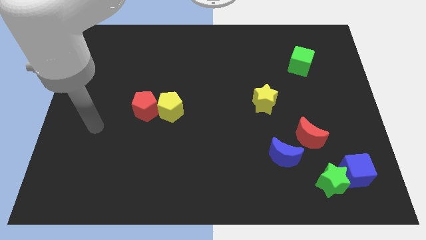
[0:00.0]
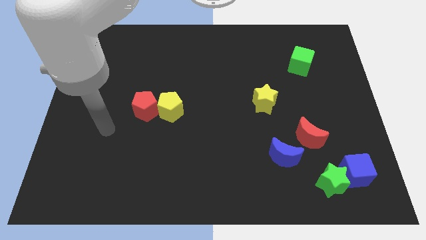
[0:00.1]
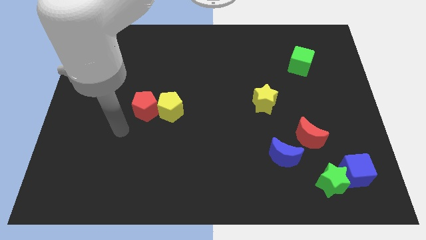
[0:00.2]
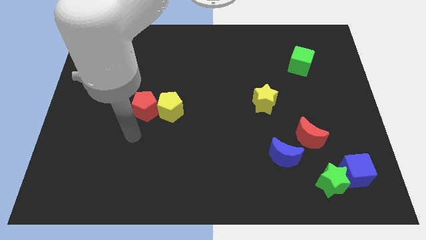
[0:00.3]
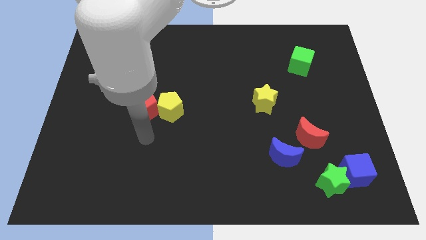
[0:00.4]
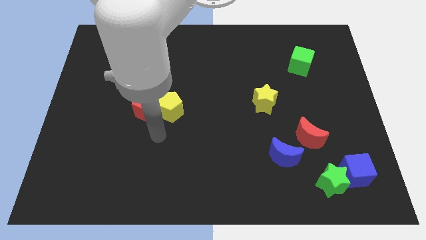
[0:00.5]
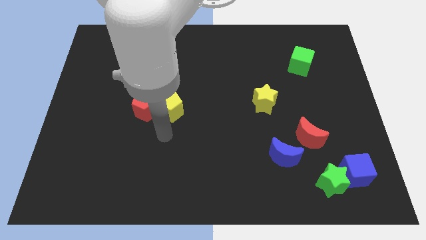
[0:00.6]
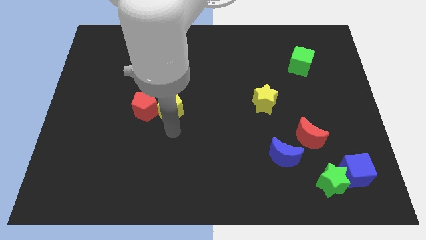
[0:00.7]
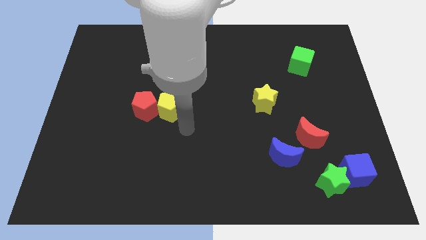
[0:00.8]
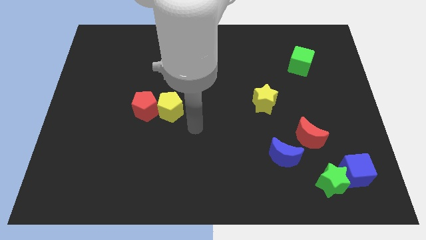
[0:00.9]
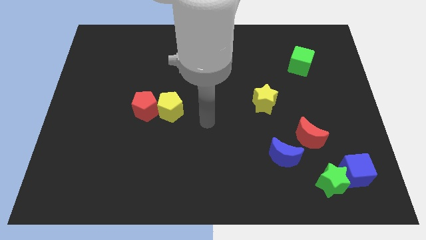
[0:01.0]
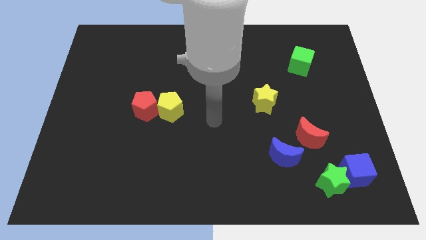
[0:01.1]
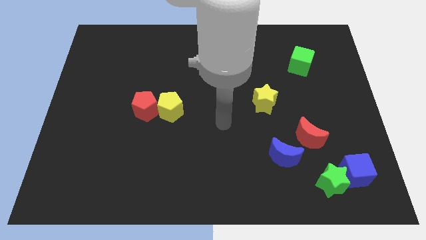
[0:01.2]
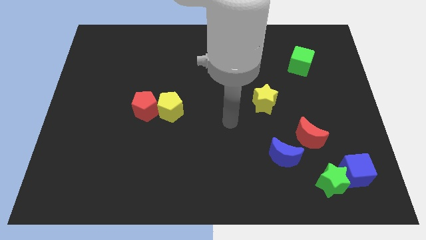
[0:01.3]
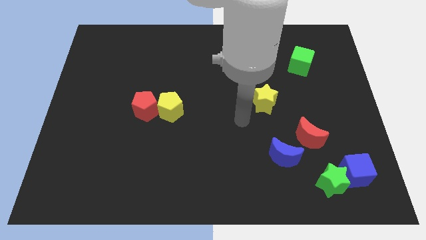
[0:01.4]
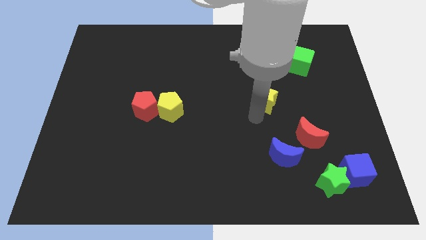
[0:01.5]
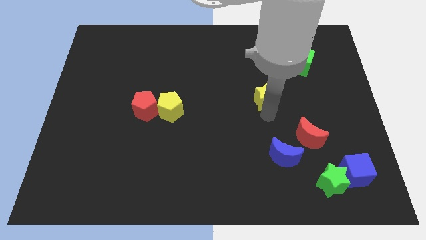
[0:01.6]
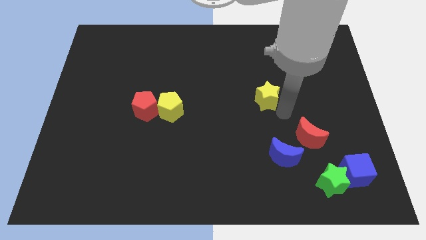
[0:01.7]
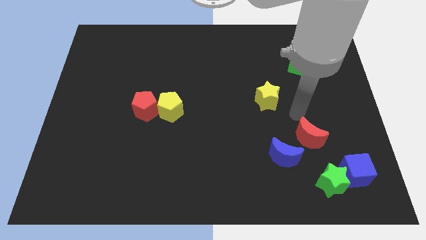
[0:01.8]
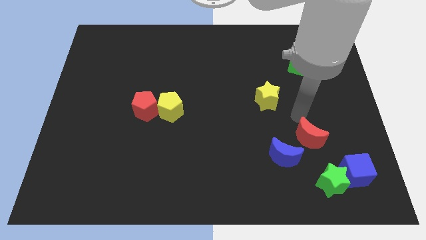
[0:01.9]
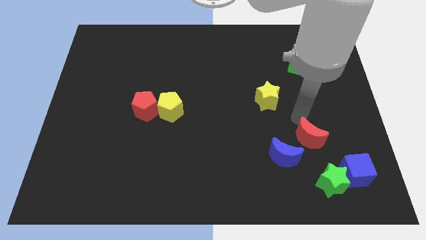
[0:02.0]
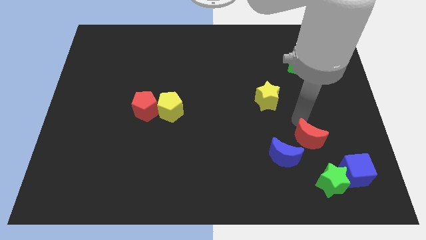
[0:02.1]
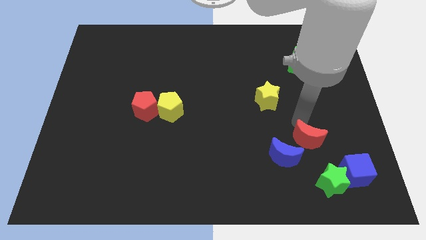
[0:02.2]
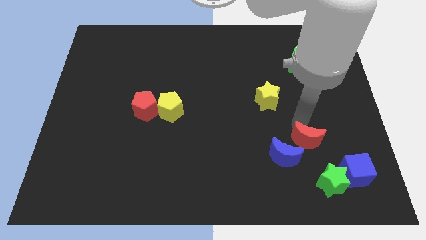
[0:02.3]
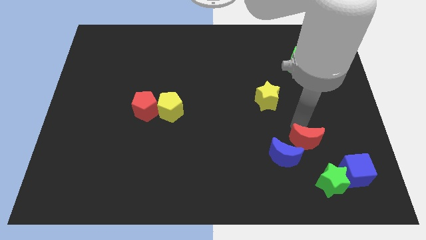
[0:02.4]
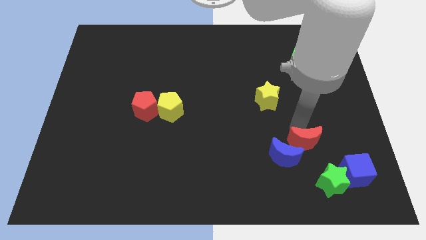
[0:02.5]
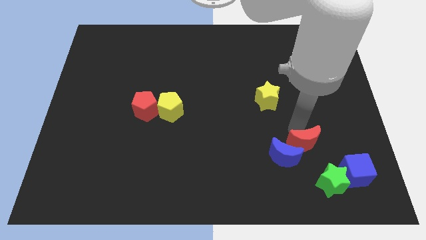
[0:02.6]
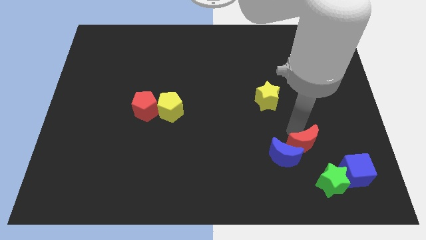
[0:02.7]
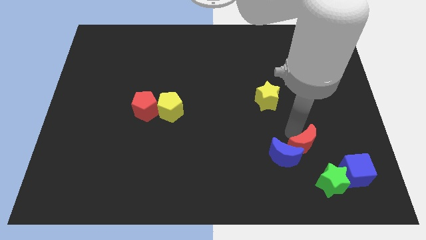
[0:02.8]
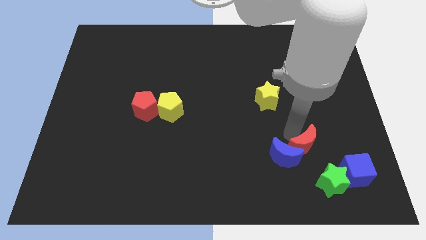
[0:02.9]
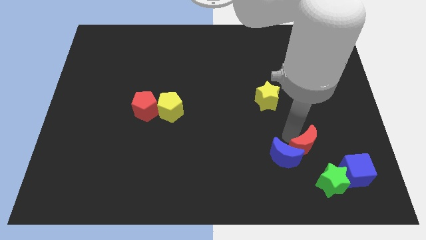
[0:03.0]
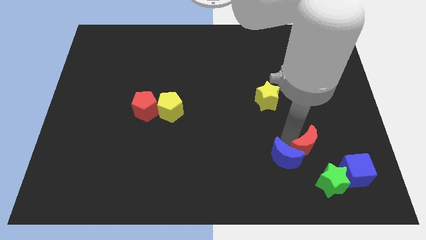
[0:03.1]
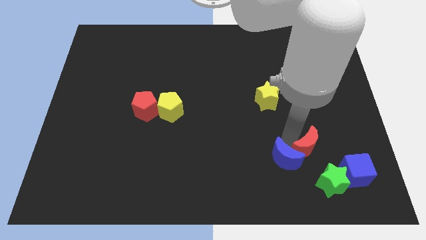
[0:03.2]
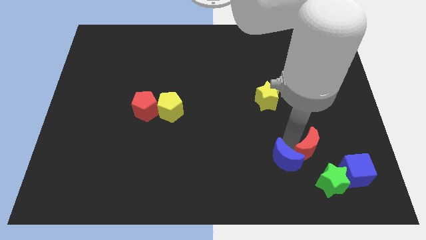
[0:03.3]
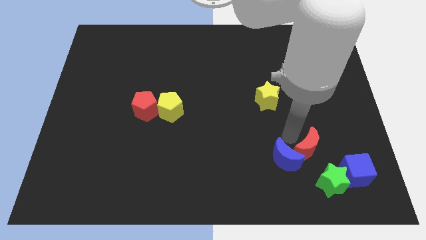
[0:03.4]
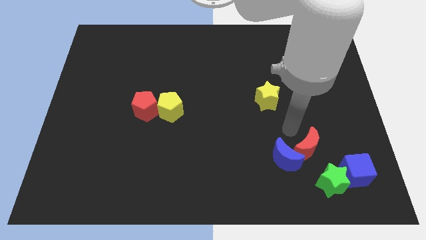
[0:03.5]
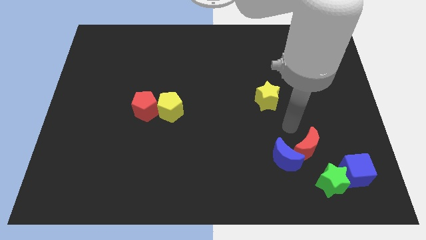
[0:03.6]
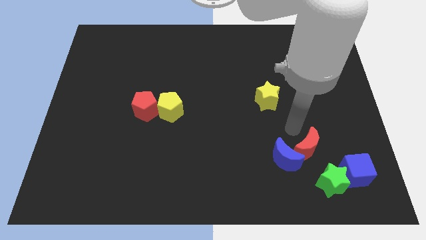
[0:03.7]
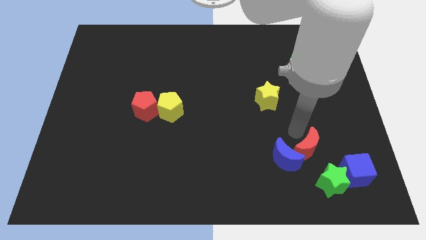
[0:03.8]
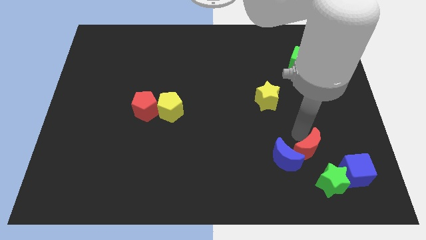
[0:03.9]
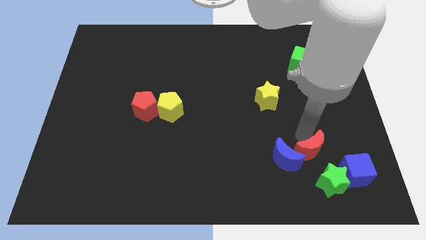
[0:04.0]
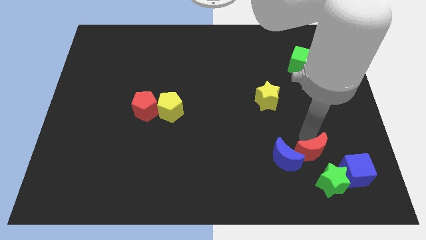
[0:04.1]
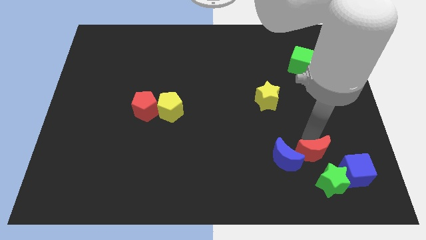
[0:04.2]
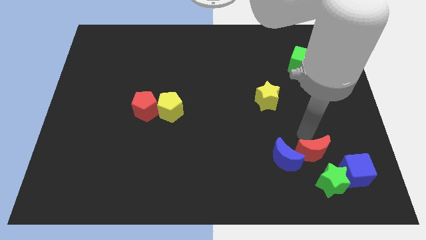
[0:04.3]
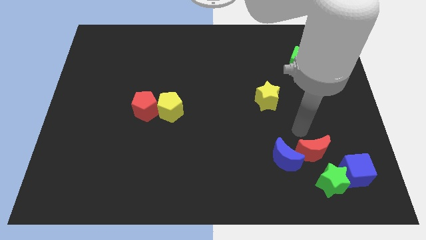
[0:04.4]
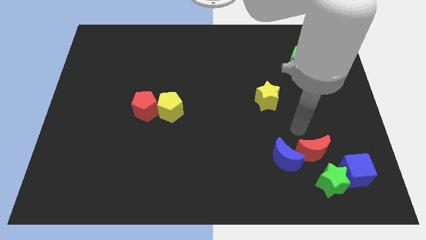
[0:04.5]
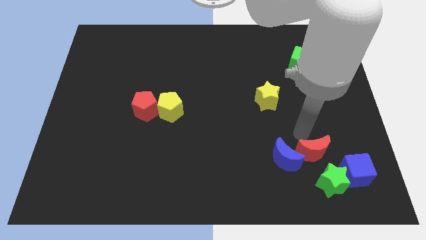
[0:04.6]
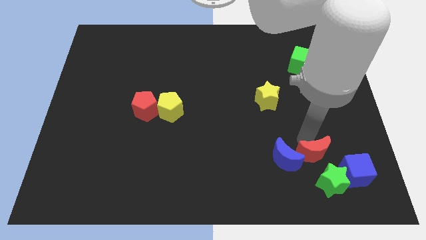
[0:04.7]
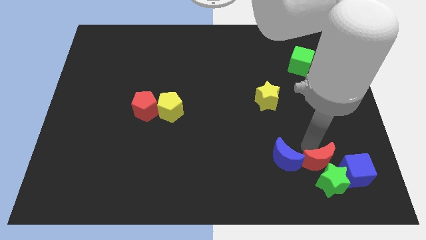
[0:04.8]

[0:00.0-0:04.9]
slide the red moon towards the green star

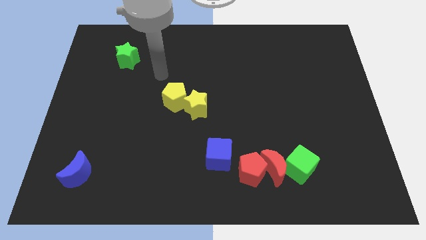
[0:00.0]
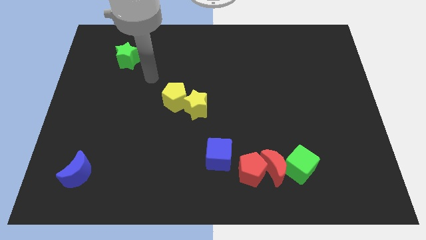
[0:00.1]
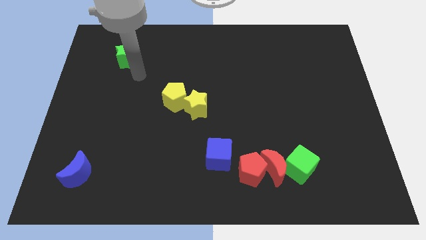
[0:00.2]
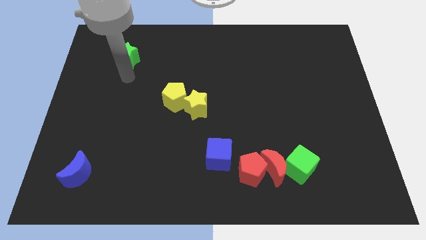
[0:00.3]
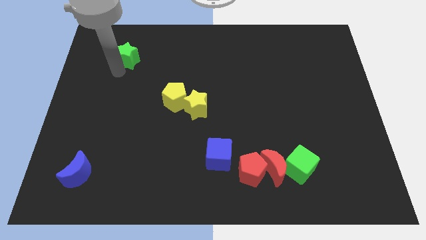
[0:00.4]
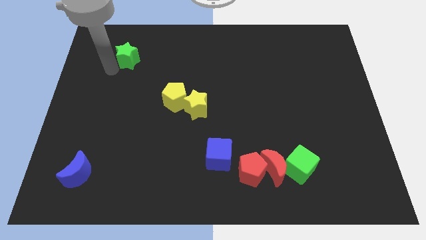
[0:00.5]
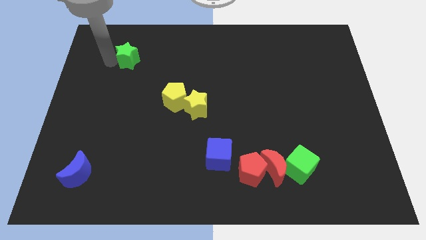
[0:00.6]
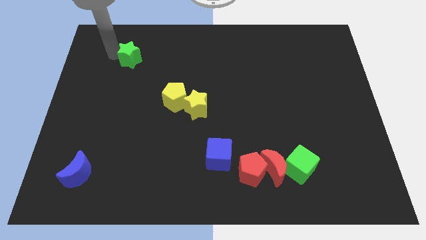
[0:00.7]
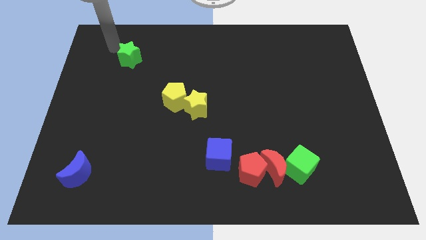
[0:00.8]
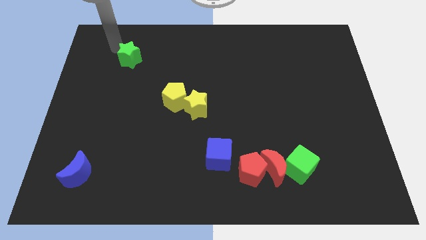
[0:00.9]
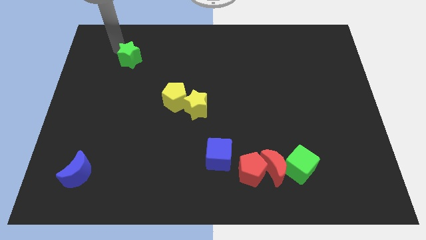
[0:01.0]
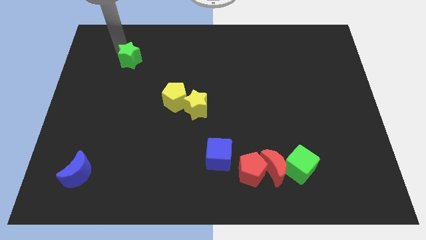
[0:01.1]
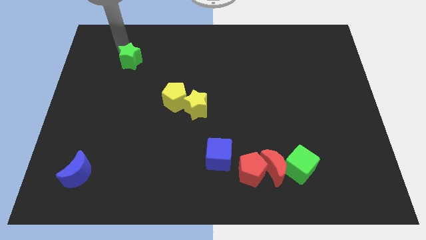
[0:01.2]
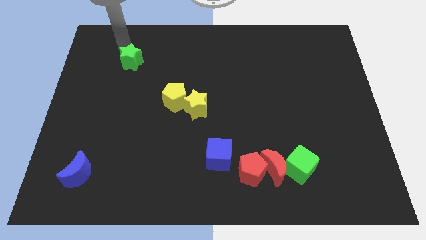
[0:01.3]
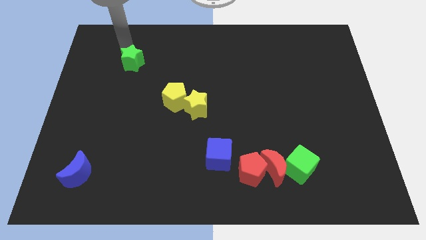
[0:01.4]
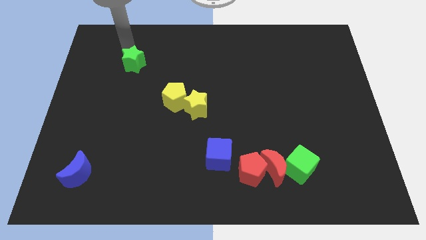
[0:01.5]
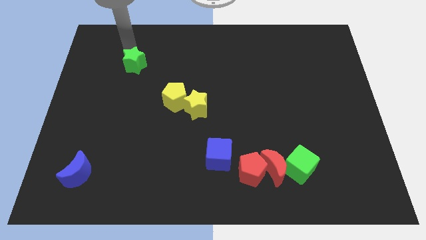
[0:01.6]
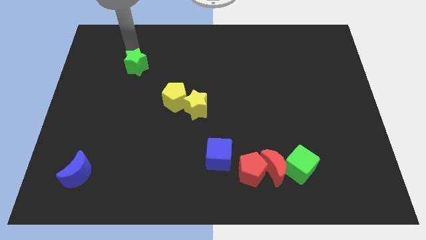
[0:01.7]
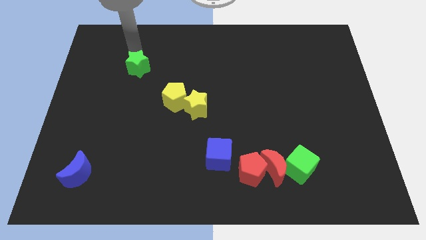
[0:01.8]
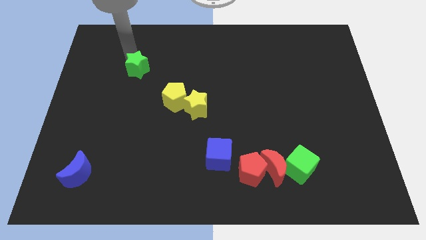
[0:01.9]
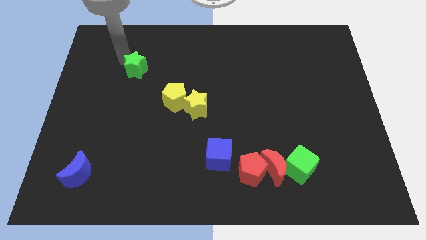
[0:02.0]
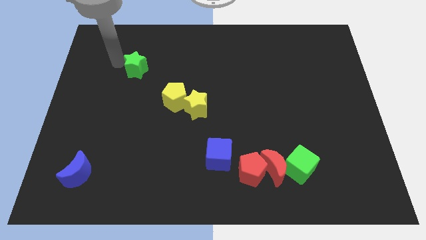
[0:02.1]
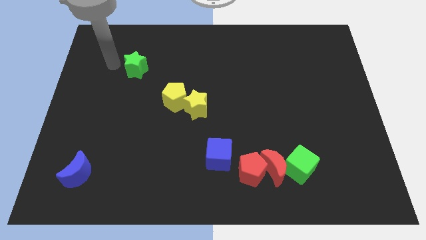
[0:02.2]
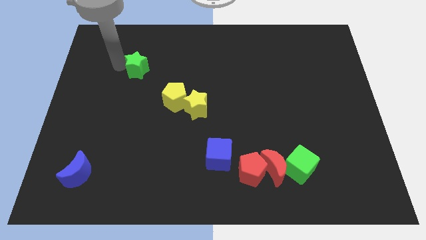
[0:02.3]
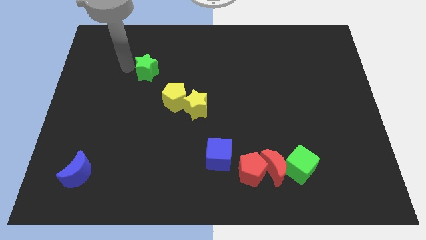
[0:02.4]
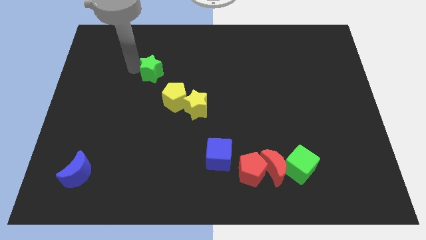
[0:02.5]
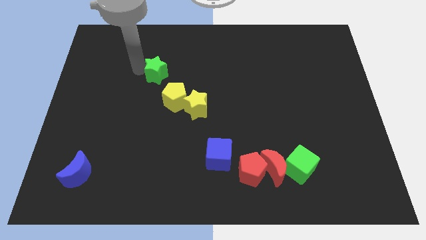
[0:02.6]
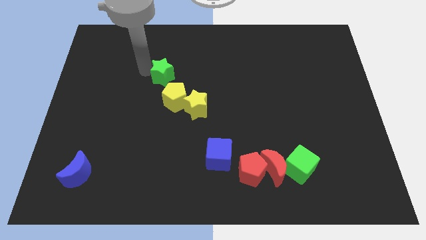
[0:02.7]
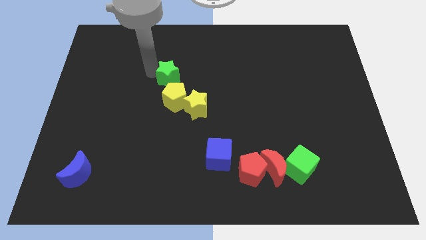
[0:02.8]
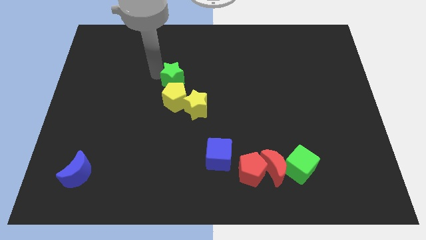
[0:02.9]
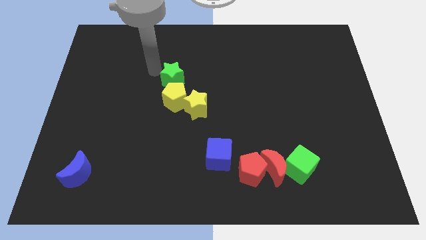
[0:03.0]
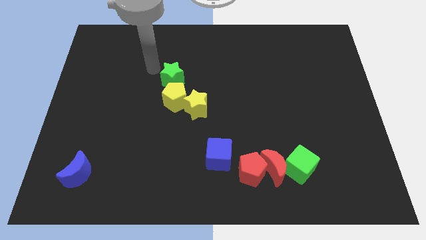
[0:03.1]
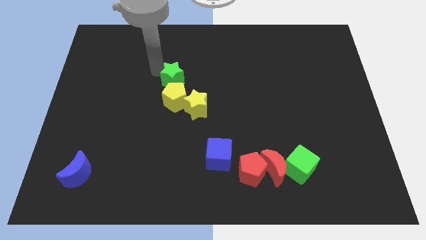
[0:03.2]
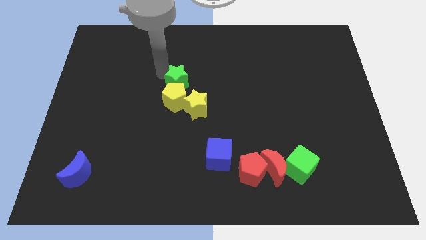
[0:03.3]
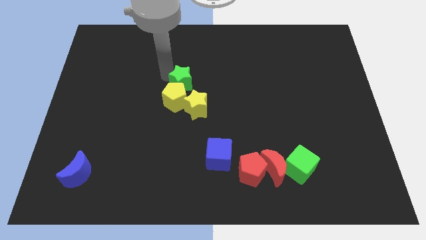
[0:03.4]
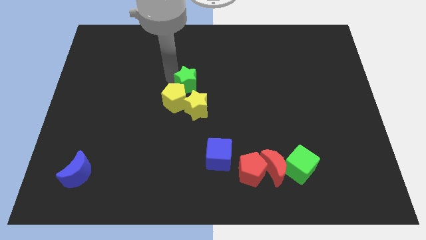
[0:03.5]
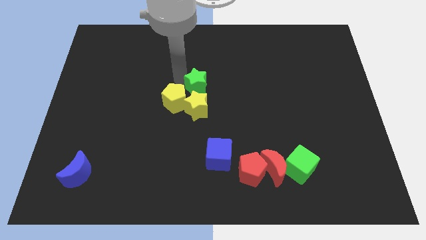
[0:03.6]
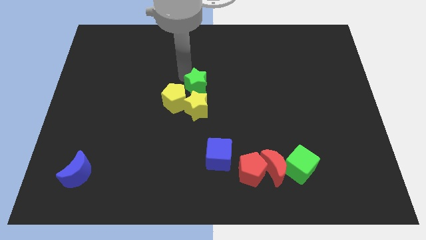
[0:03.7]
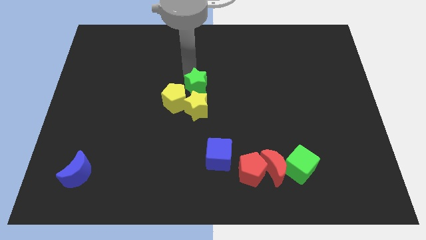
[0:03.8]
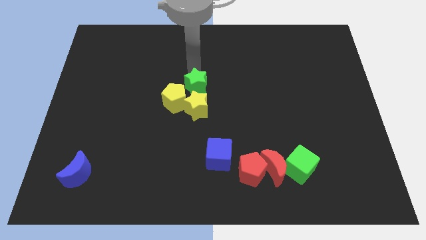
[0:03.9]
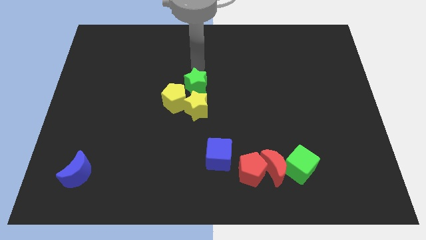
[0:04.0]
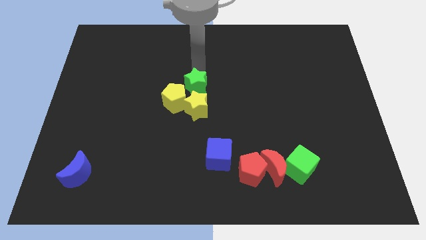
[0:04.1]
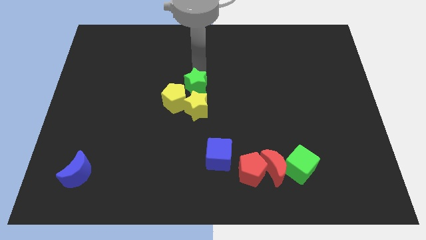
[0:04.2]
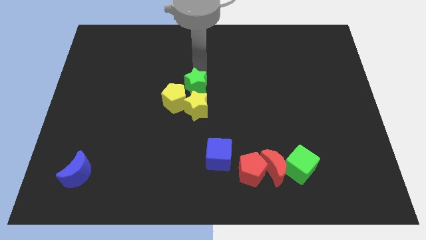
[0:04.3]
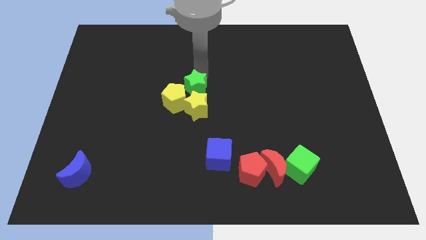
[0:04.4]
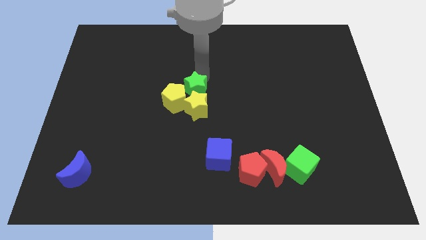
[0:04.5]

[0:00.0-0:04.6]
put the green star towards the yellow star
